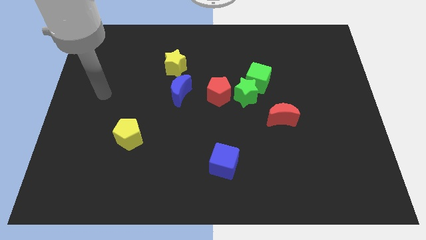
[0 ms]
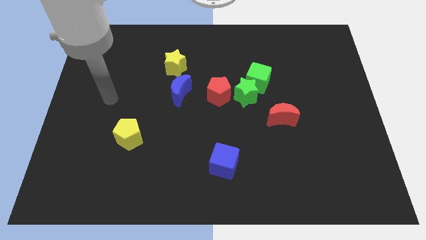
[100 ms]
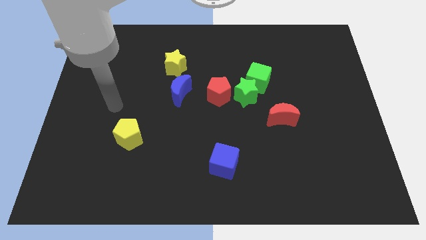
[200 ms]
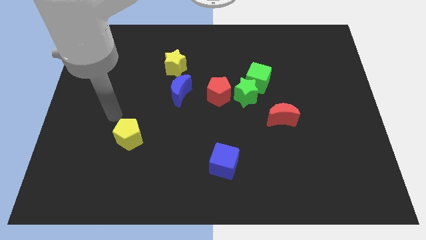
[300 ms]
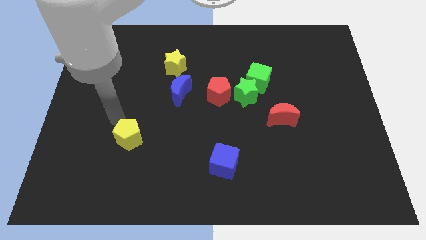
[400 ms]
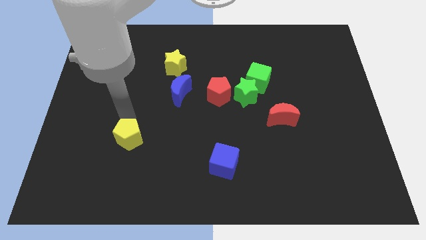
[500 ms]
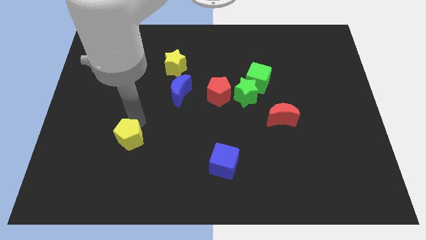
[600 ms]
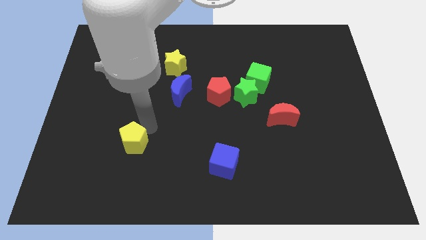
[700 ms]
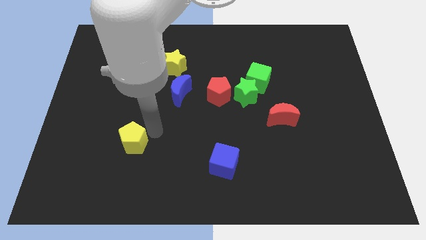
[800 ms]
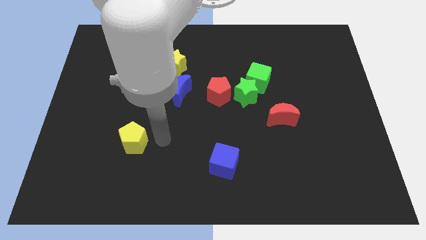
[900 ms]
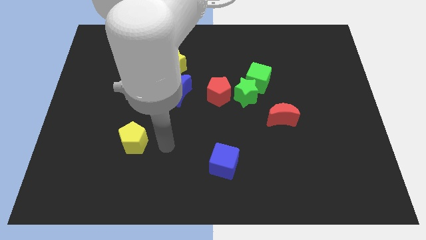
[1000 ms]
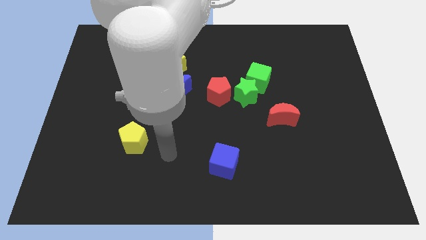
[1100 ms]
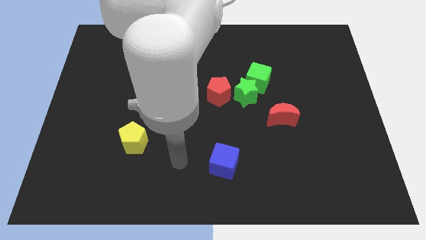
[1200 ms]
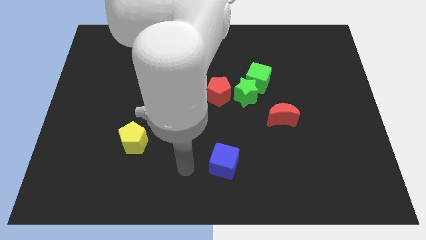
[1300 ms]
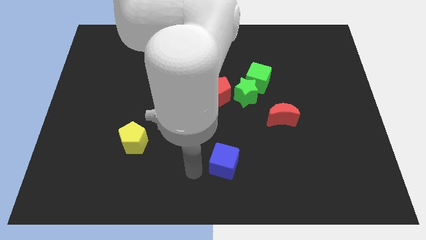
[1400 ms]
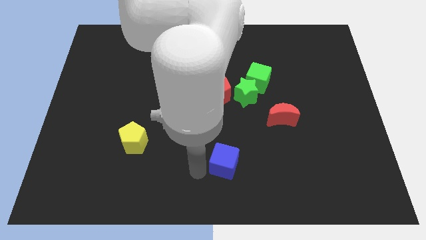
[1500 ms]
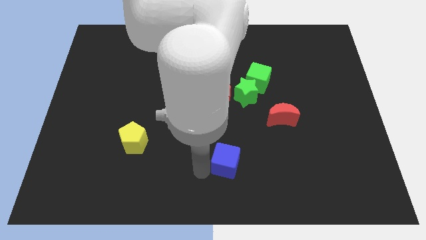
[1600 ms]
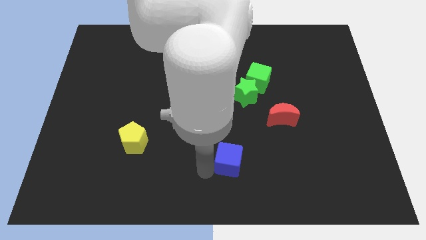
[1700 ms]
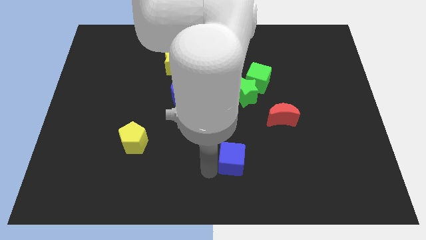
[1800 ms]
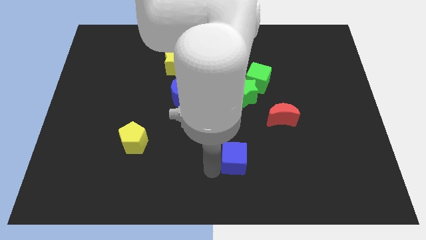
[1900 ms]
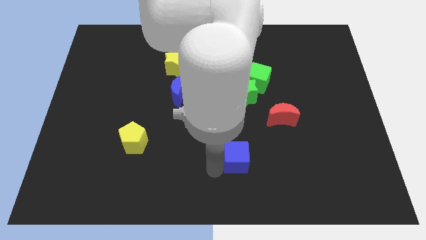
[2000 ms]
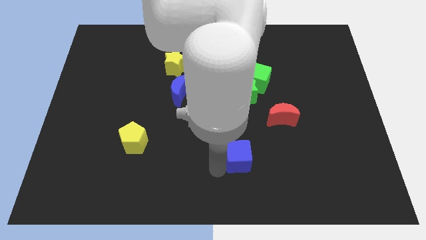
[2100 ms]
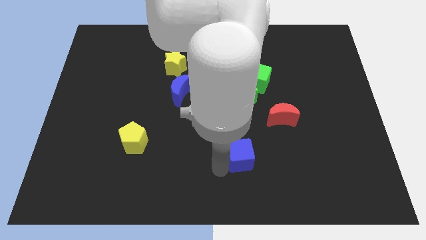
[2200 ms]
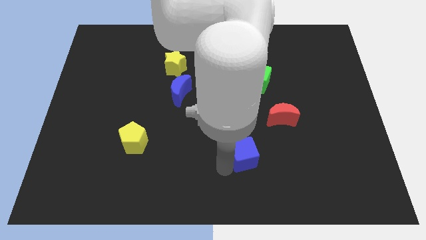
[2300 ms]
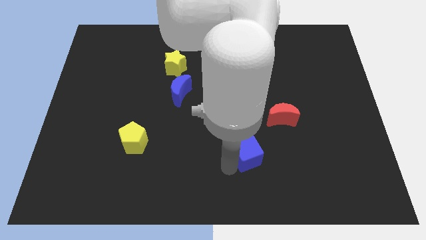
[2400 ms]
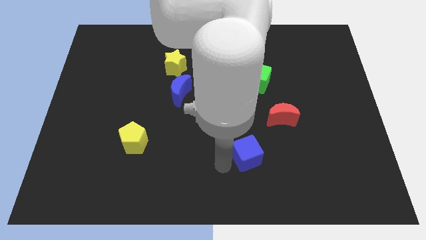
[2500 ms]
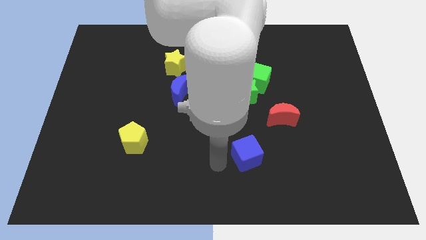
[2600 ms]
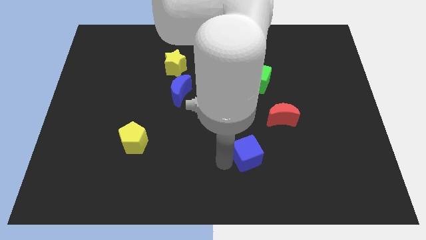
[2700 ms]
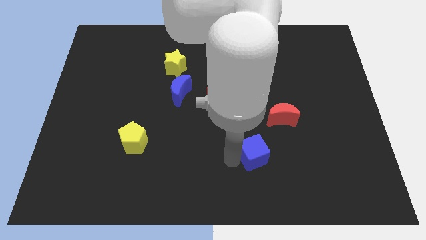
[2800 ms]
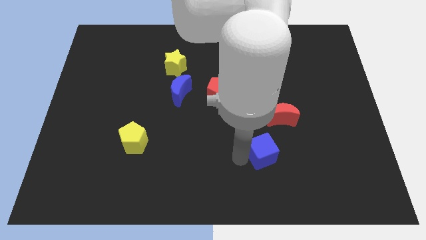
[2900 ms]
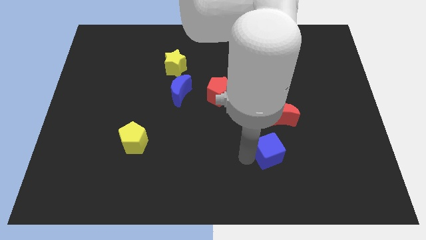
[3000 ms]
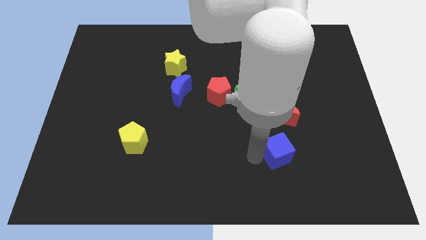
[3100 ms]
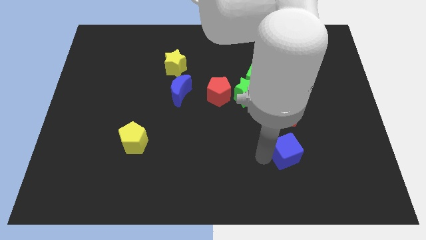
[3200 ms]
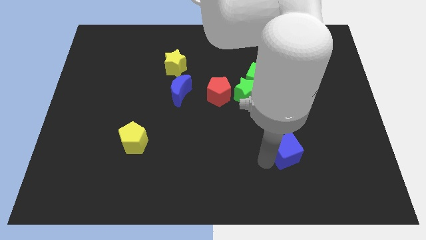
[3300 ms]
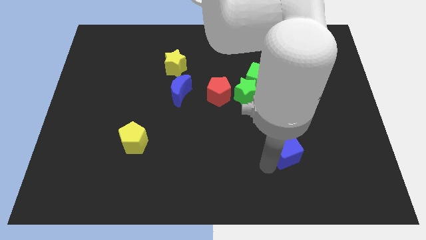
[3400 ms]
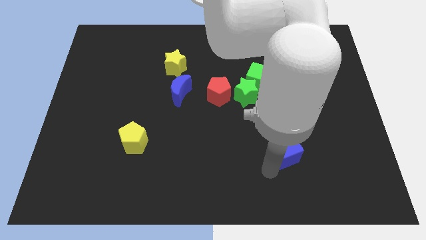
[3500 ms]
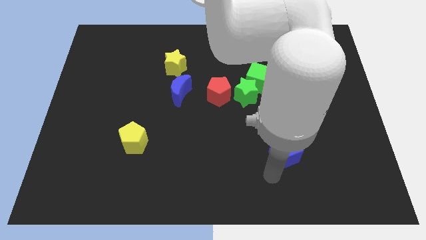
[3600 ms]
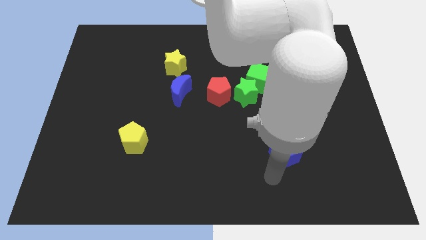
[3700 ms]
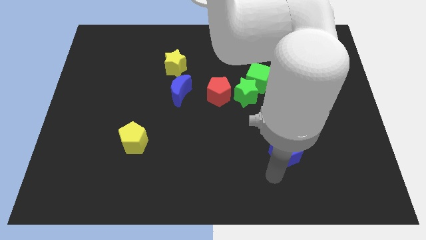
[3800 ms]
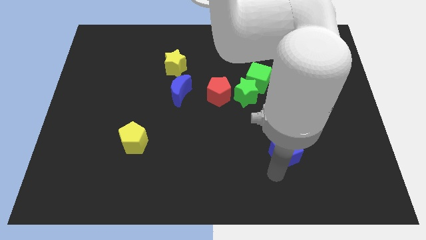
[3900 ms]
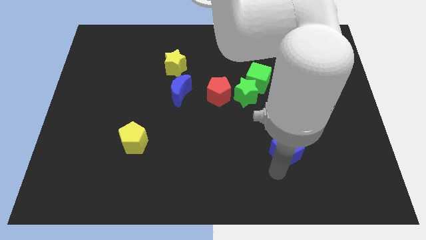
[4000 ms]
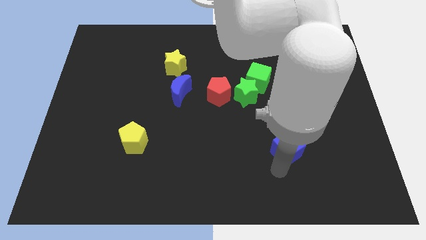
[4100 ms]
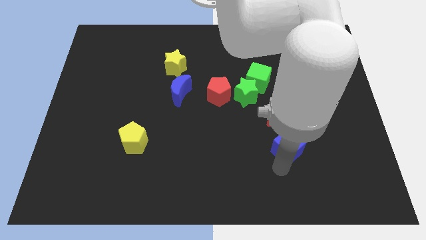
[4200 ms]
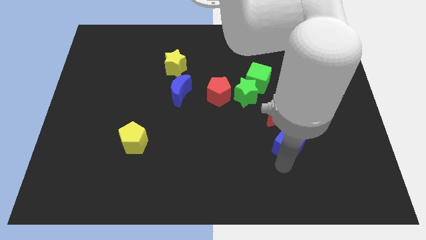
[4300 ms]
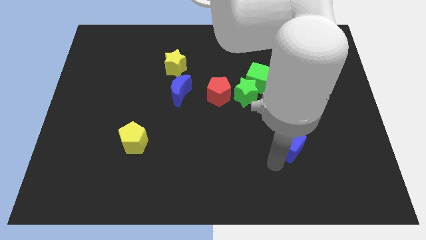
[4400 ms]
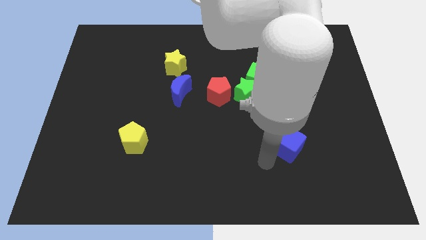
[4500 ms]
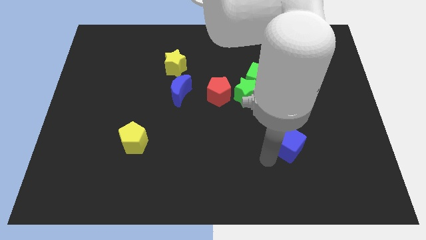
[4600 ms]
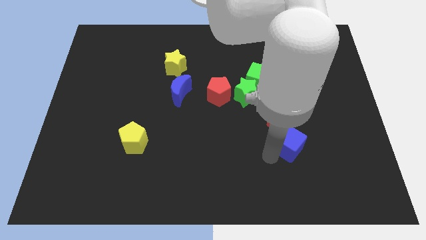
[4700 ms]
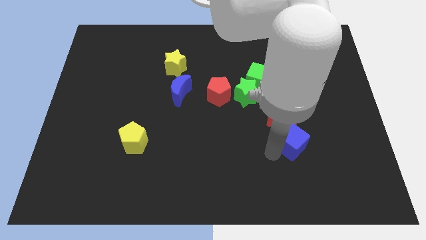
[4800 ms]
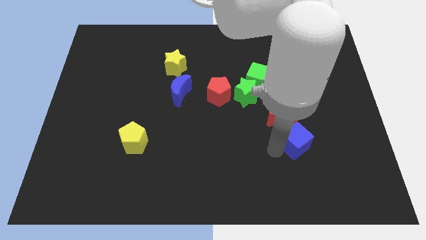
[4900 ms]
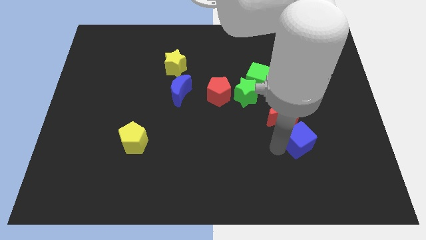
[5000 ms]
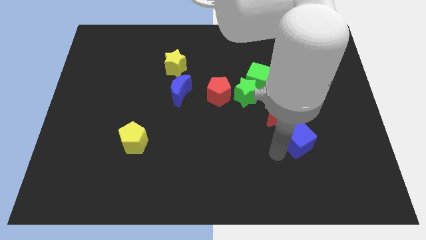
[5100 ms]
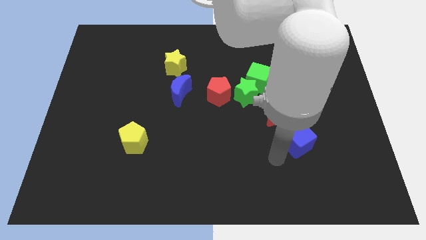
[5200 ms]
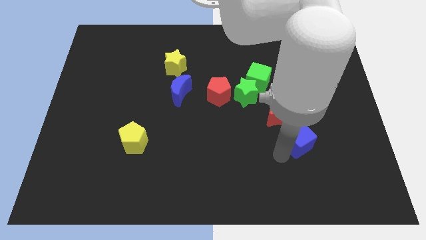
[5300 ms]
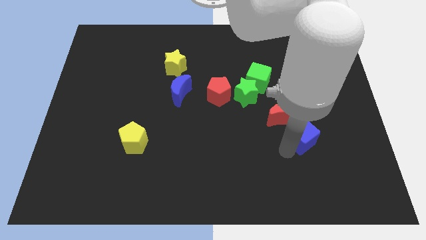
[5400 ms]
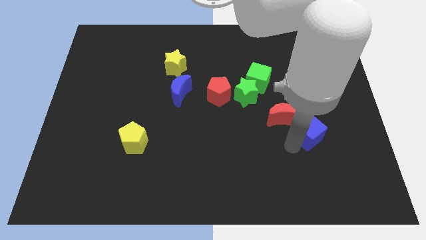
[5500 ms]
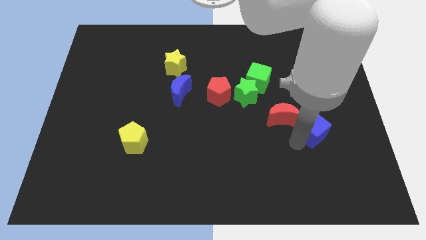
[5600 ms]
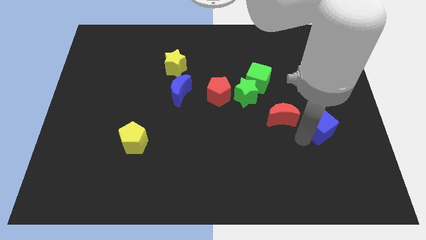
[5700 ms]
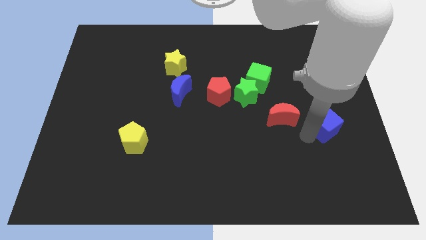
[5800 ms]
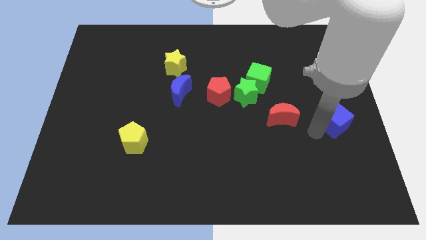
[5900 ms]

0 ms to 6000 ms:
put the blue cube to the right side
